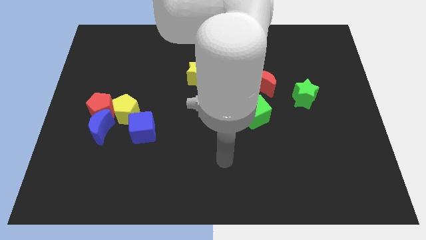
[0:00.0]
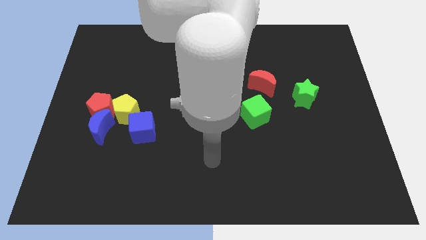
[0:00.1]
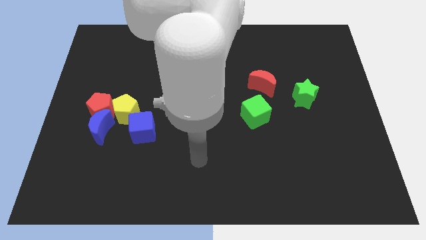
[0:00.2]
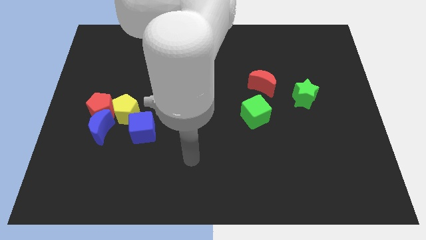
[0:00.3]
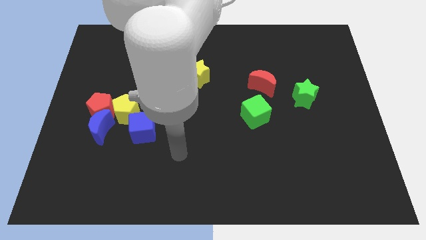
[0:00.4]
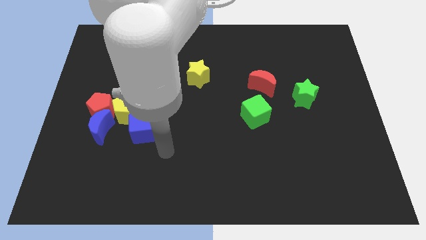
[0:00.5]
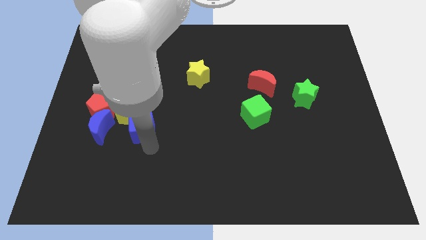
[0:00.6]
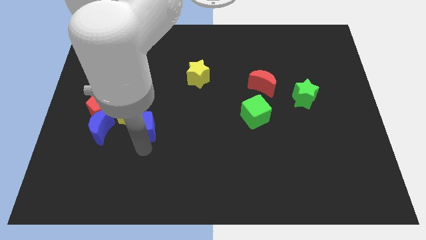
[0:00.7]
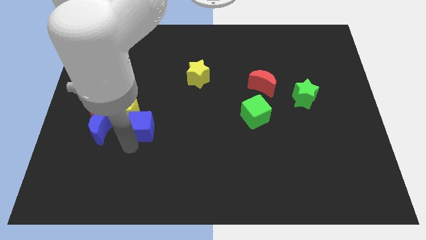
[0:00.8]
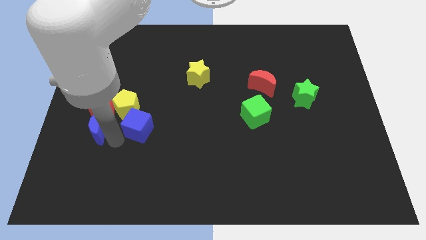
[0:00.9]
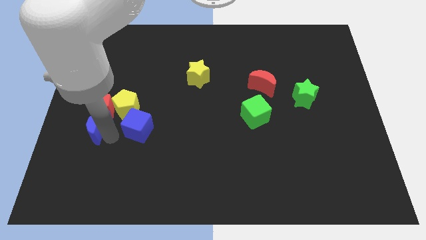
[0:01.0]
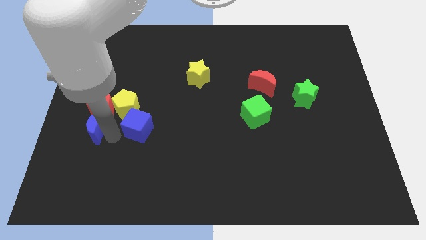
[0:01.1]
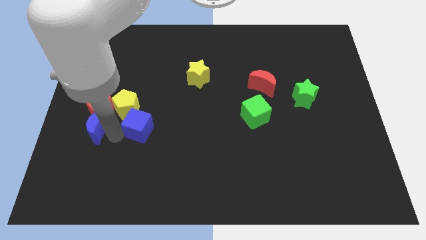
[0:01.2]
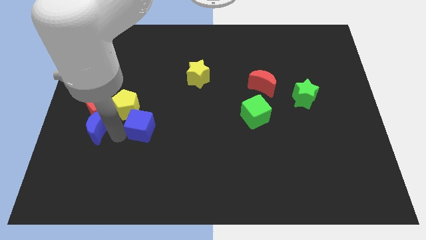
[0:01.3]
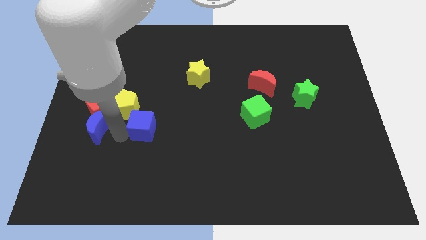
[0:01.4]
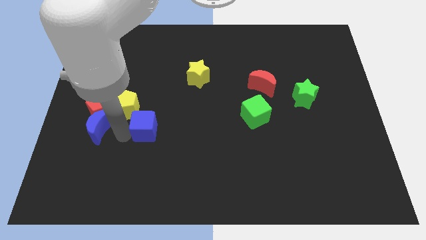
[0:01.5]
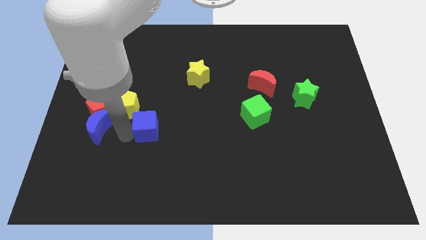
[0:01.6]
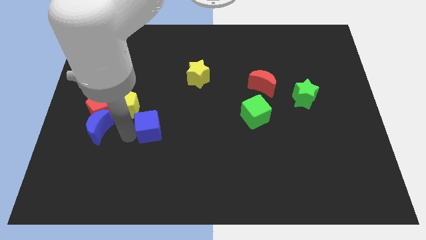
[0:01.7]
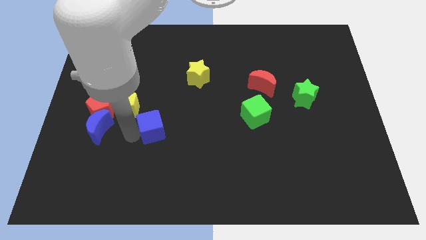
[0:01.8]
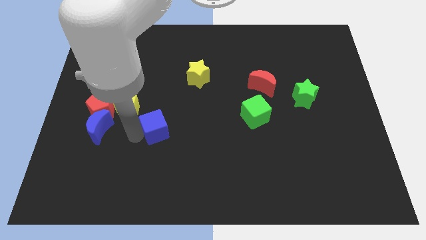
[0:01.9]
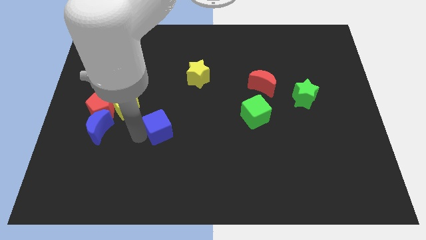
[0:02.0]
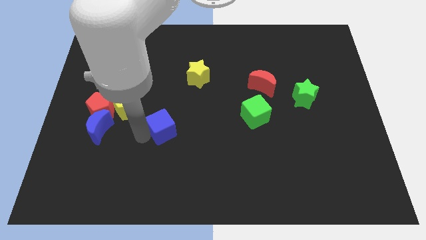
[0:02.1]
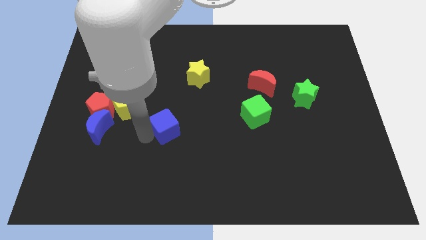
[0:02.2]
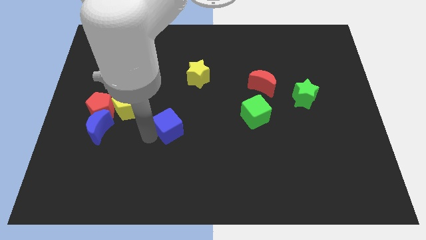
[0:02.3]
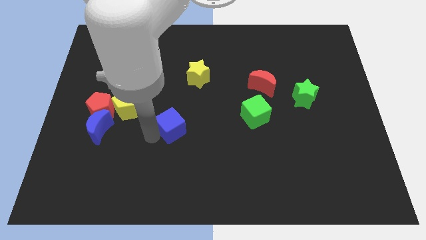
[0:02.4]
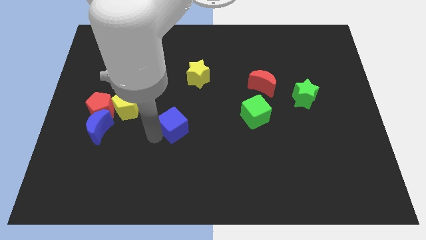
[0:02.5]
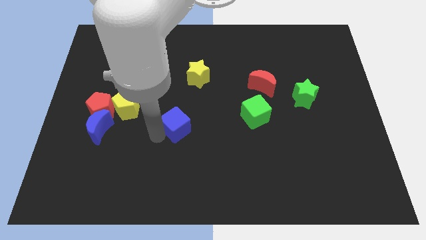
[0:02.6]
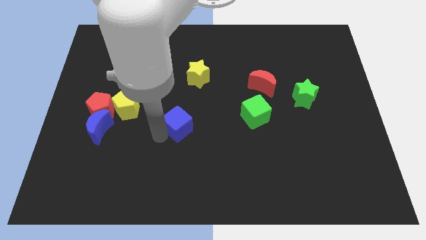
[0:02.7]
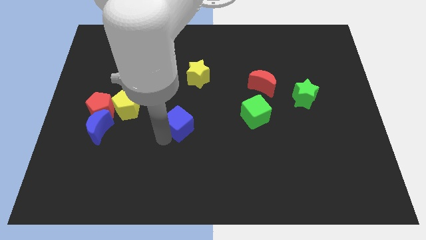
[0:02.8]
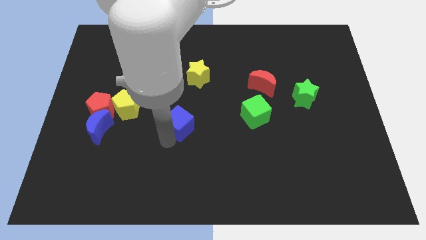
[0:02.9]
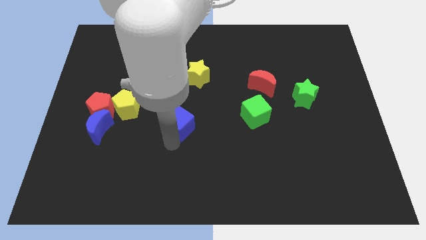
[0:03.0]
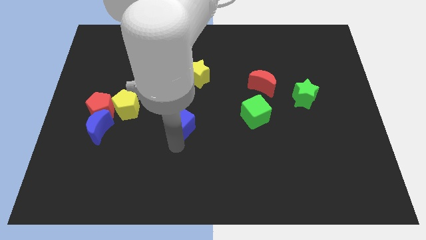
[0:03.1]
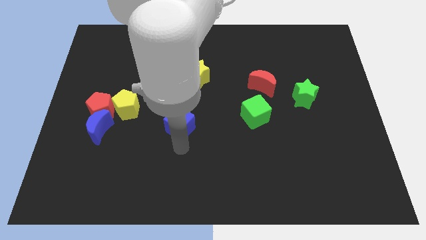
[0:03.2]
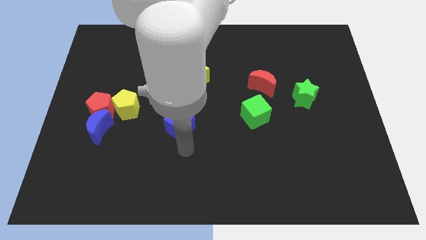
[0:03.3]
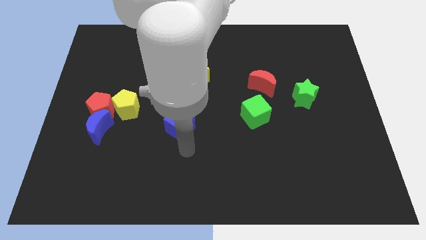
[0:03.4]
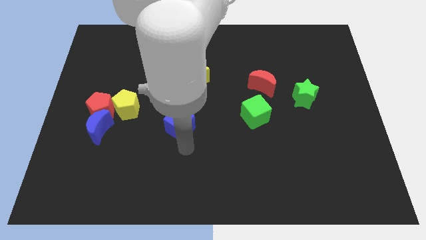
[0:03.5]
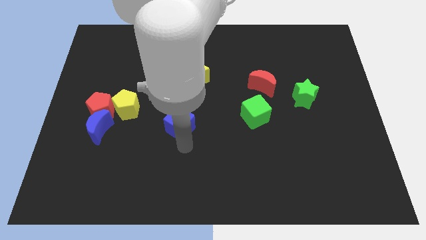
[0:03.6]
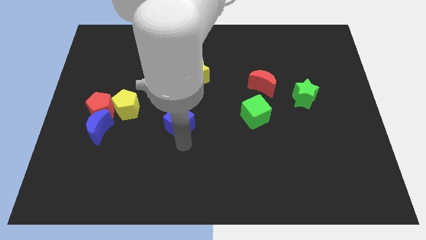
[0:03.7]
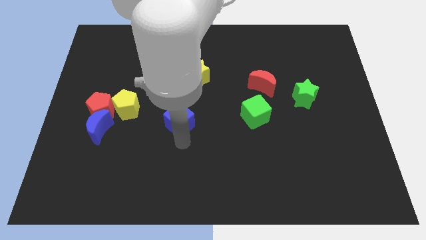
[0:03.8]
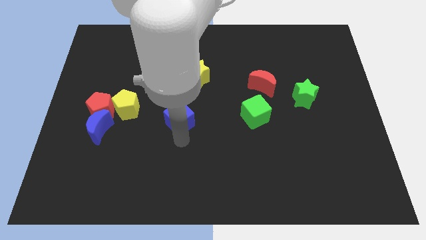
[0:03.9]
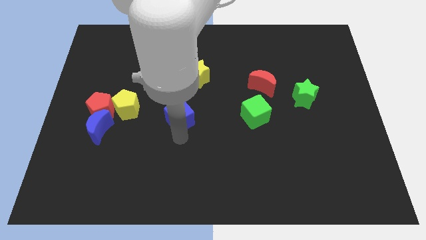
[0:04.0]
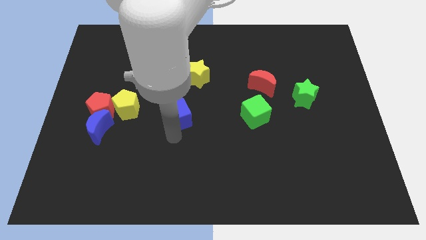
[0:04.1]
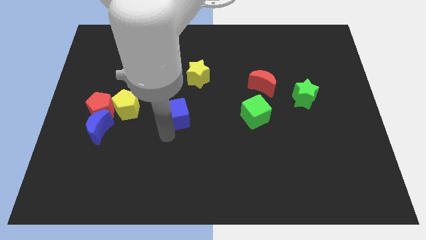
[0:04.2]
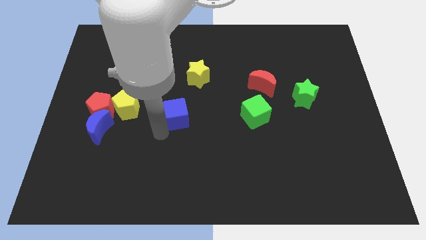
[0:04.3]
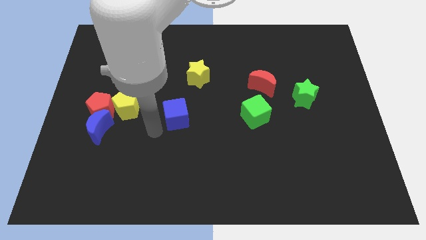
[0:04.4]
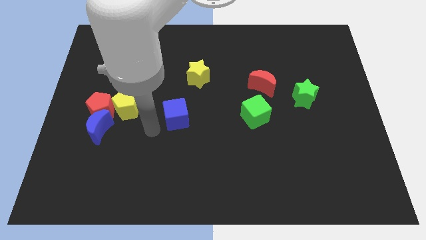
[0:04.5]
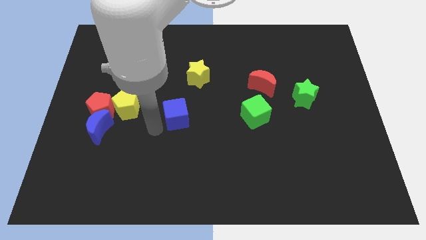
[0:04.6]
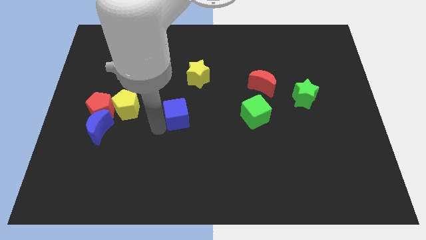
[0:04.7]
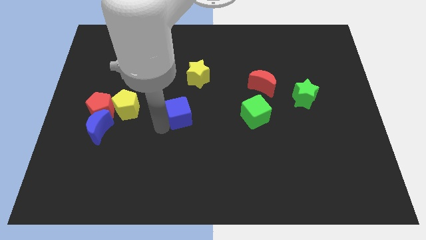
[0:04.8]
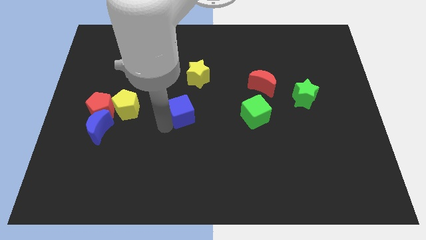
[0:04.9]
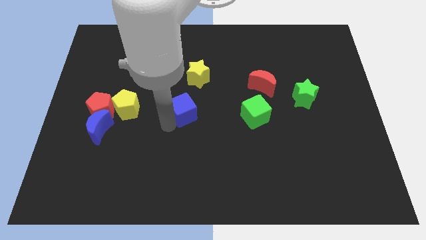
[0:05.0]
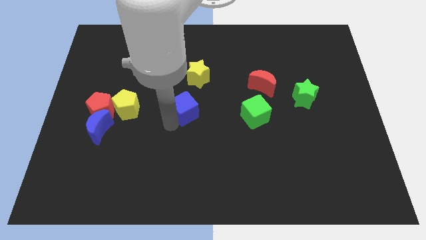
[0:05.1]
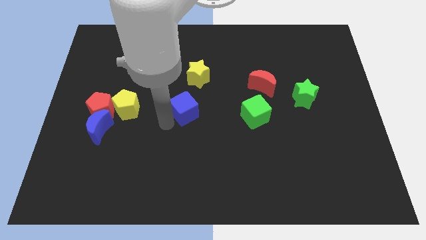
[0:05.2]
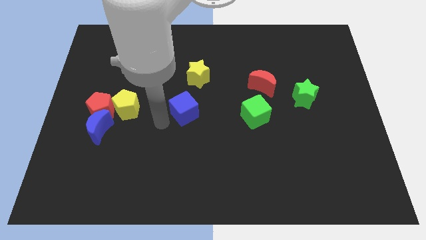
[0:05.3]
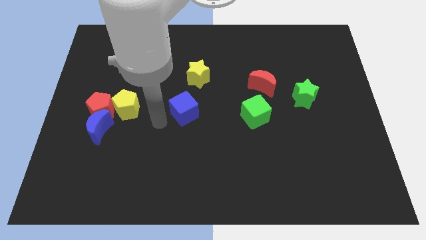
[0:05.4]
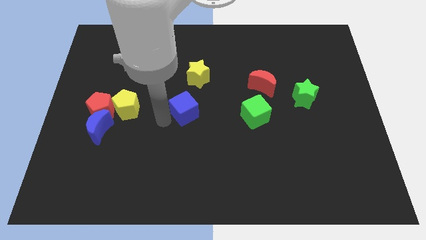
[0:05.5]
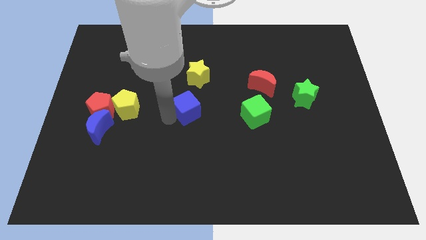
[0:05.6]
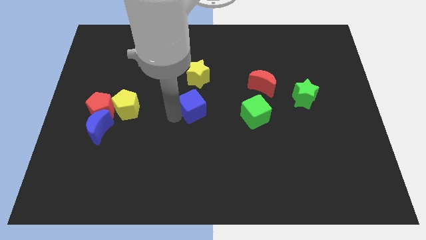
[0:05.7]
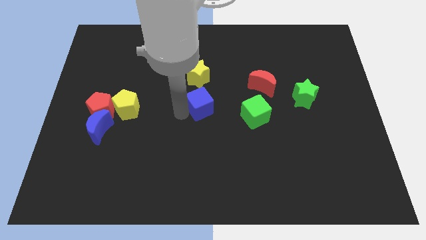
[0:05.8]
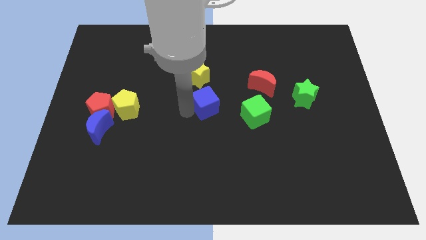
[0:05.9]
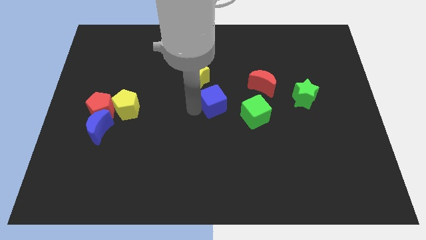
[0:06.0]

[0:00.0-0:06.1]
slide the blue cube to the top left side of the green cube

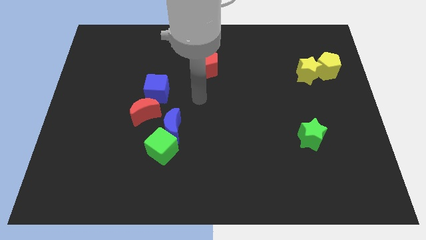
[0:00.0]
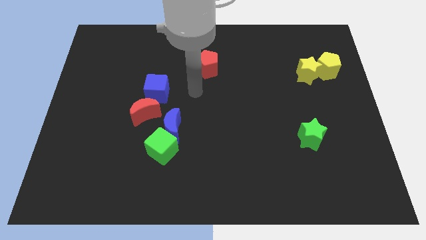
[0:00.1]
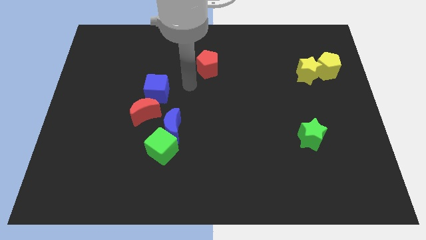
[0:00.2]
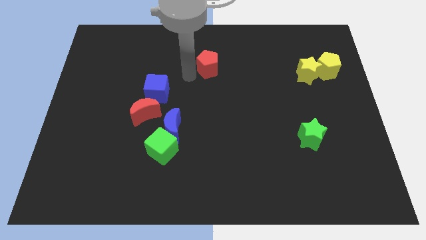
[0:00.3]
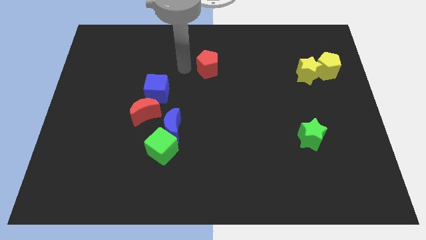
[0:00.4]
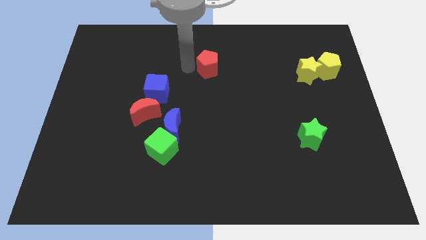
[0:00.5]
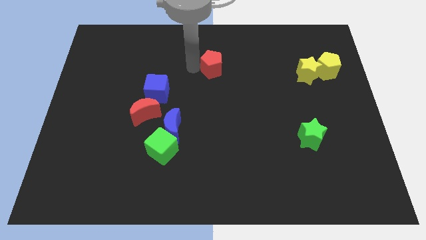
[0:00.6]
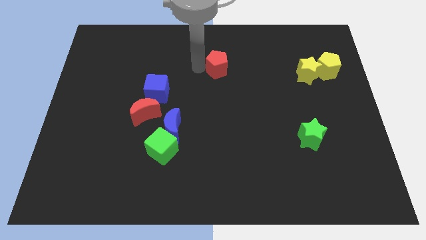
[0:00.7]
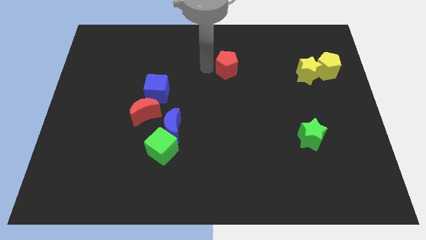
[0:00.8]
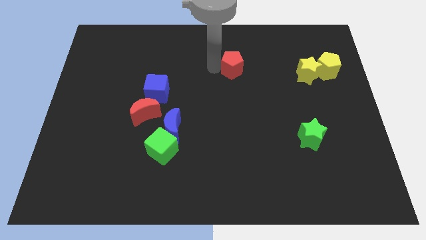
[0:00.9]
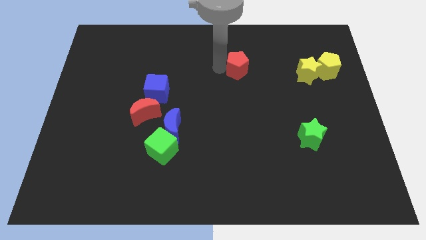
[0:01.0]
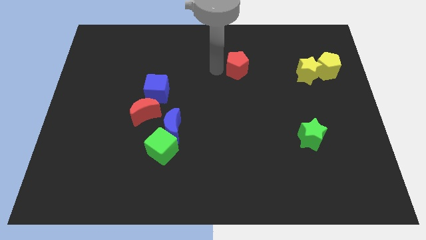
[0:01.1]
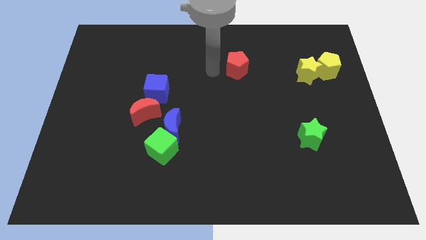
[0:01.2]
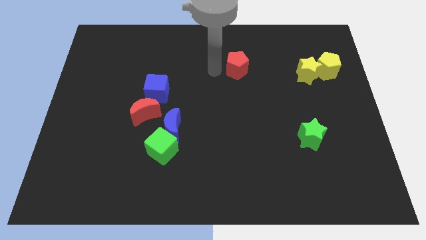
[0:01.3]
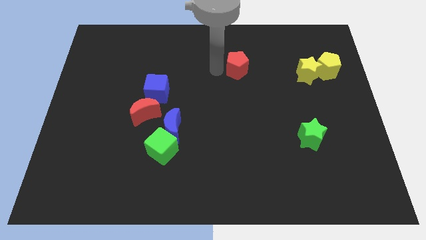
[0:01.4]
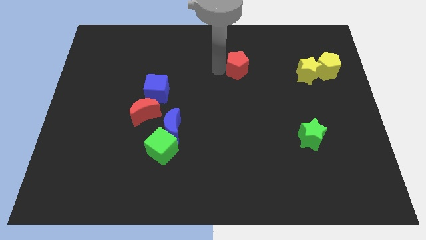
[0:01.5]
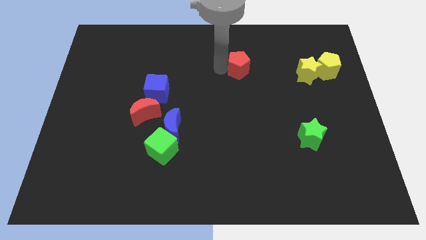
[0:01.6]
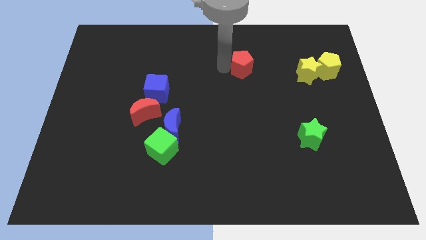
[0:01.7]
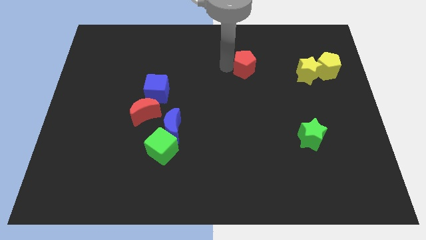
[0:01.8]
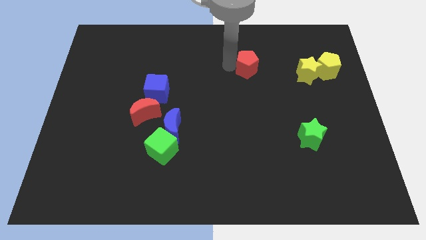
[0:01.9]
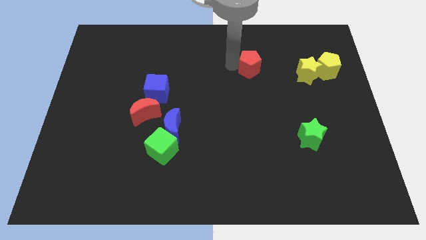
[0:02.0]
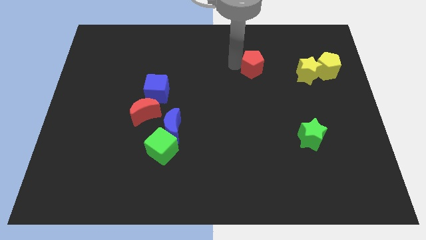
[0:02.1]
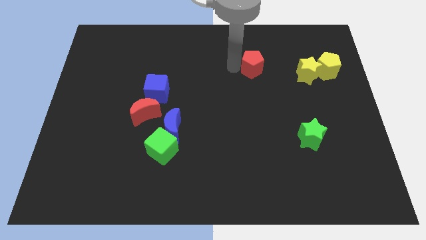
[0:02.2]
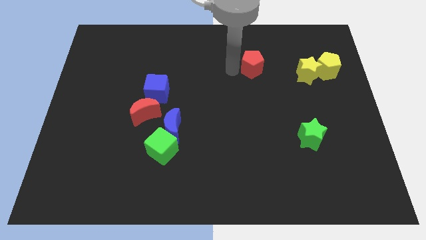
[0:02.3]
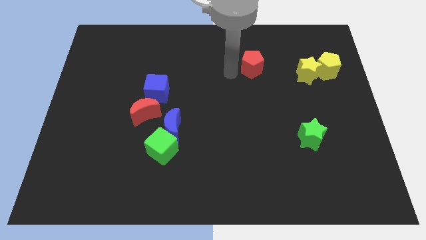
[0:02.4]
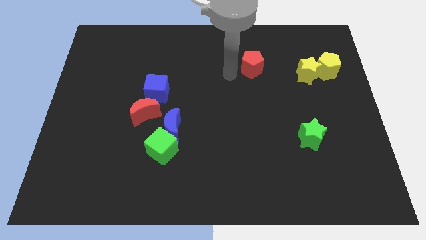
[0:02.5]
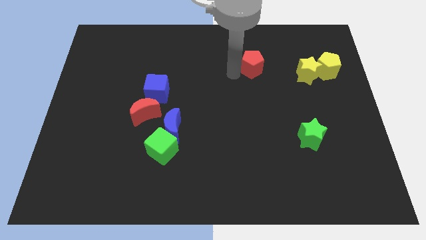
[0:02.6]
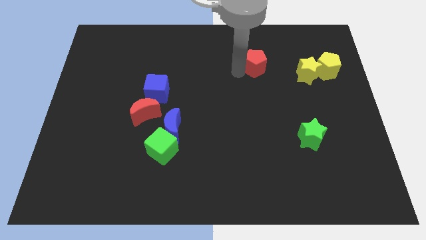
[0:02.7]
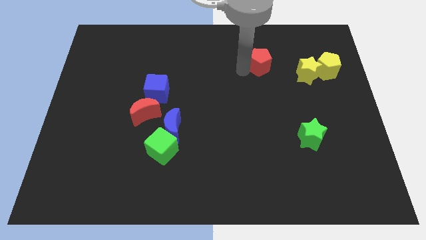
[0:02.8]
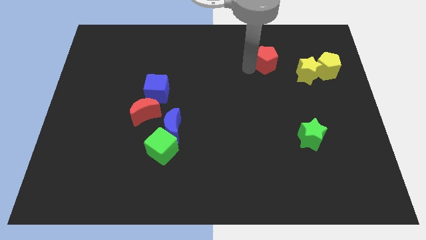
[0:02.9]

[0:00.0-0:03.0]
push the red pentagon diagonally up and to the left of the yellow star
